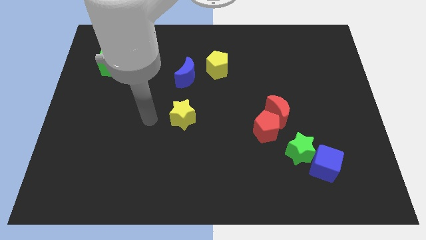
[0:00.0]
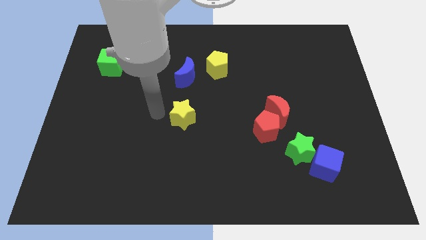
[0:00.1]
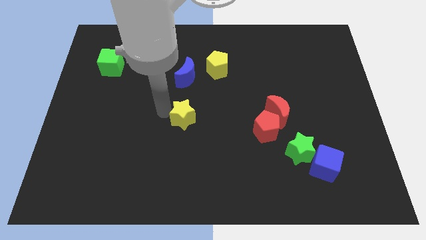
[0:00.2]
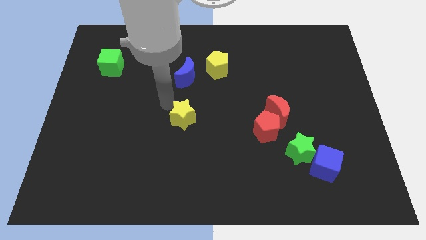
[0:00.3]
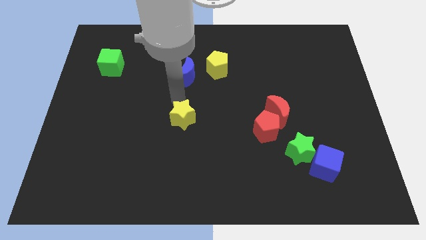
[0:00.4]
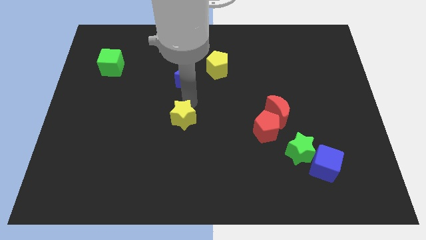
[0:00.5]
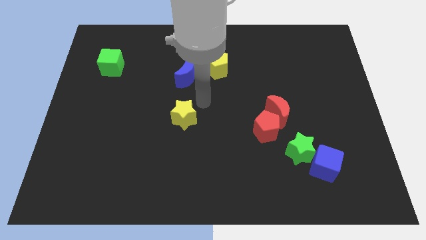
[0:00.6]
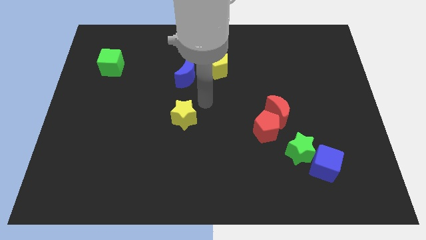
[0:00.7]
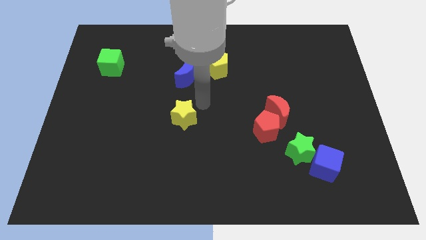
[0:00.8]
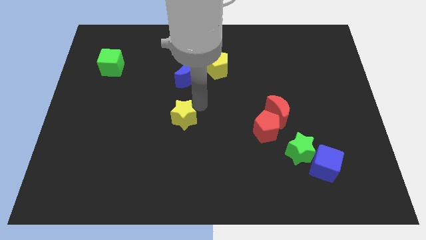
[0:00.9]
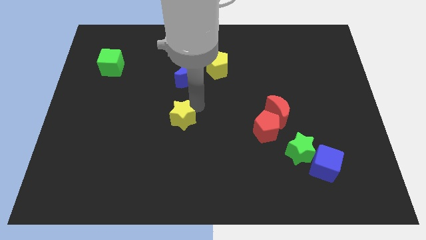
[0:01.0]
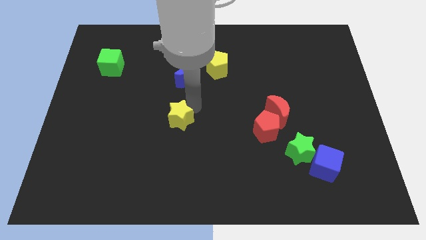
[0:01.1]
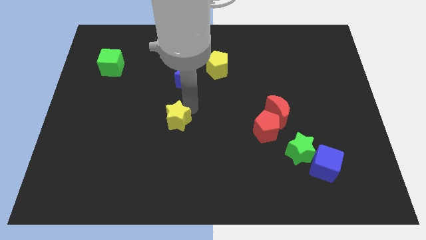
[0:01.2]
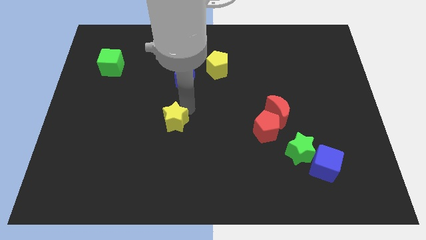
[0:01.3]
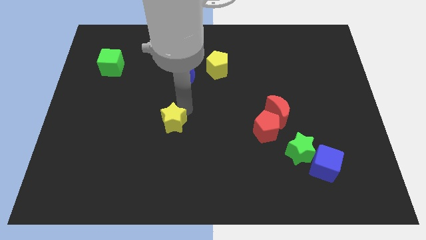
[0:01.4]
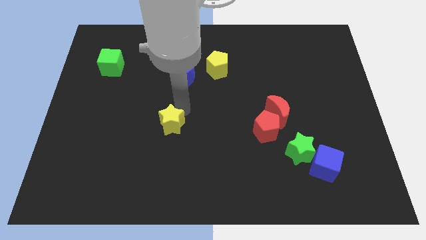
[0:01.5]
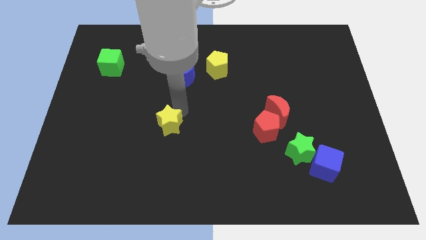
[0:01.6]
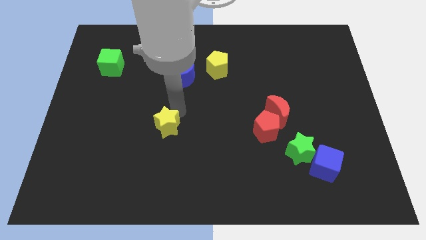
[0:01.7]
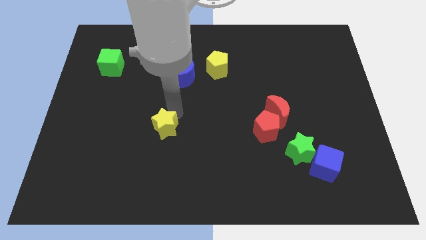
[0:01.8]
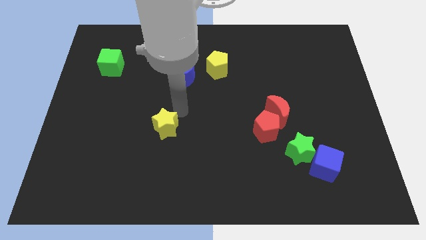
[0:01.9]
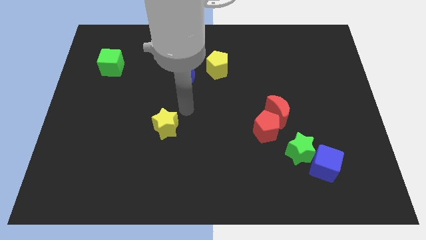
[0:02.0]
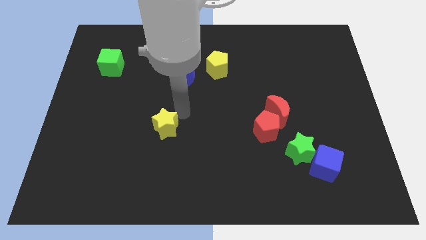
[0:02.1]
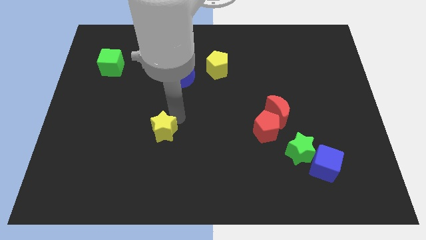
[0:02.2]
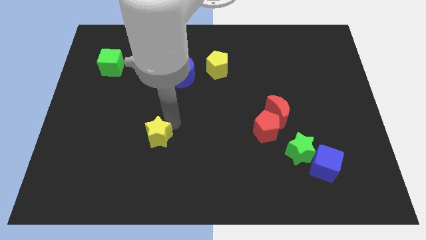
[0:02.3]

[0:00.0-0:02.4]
push the yellow star downwards and then to the left a little

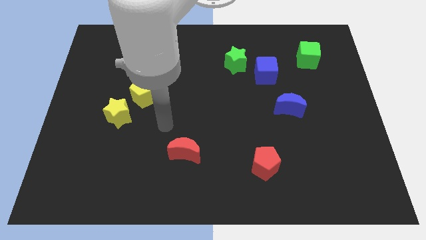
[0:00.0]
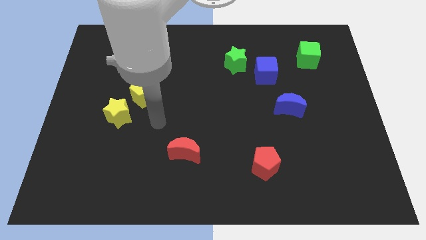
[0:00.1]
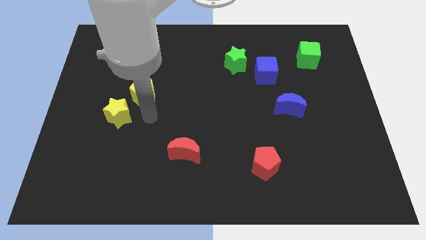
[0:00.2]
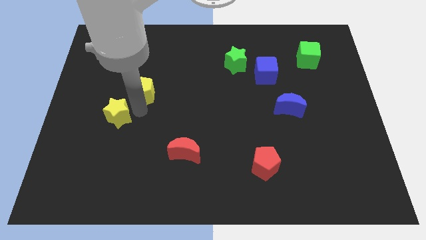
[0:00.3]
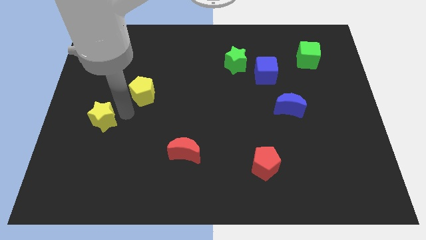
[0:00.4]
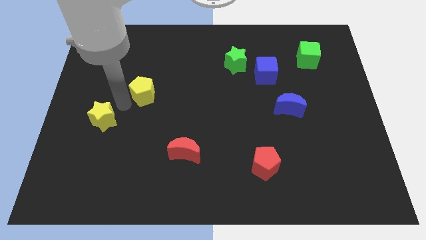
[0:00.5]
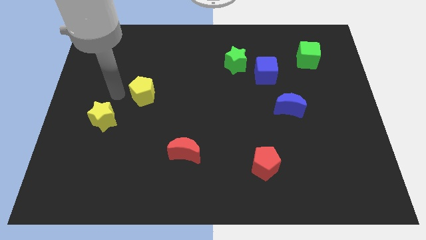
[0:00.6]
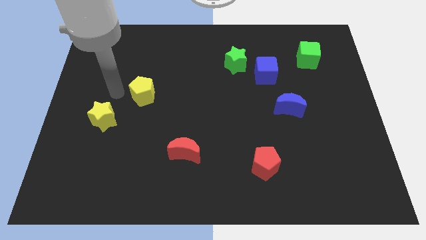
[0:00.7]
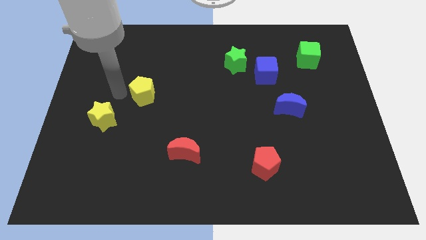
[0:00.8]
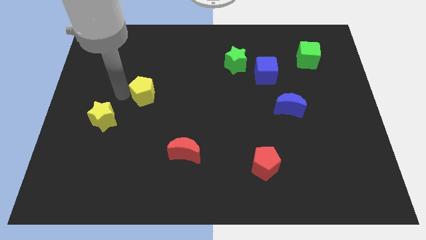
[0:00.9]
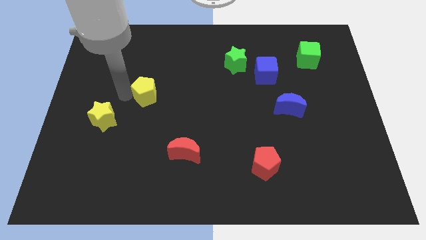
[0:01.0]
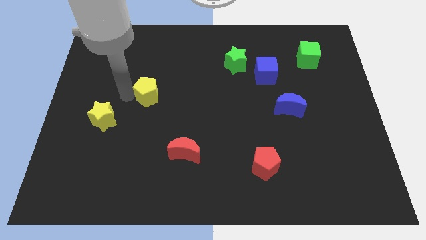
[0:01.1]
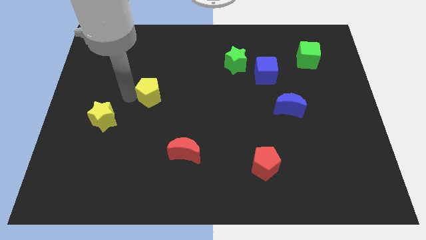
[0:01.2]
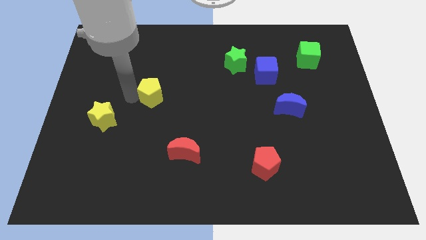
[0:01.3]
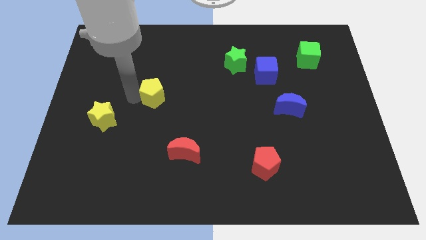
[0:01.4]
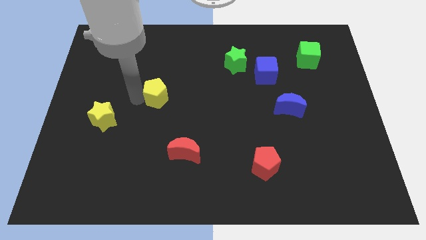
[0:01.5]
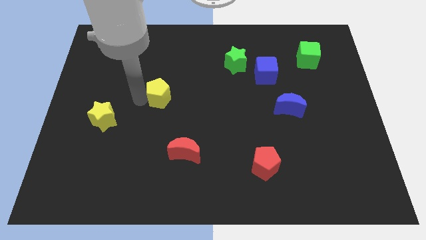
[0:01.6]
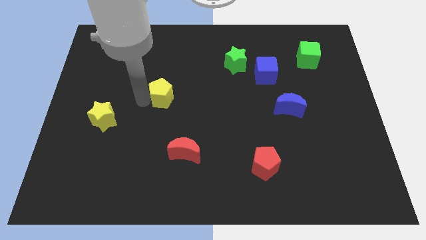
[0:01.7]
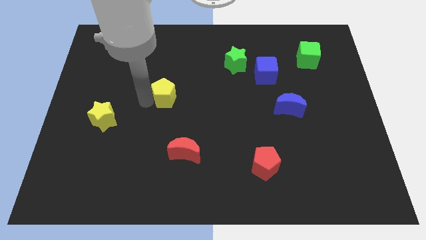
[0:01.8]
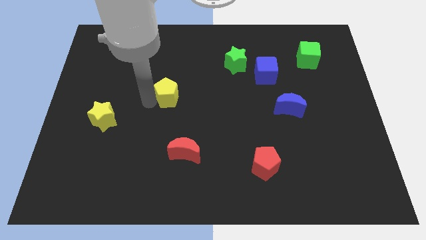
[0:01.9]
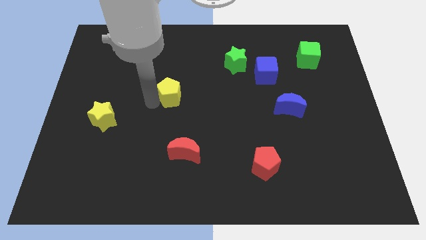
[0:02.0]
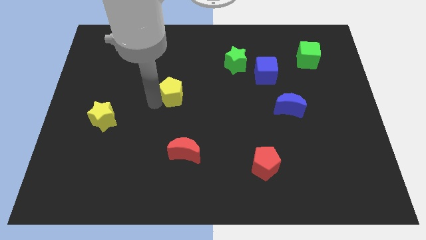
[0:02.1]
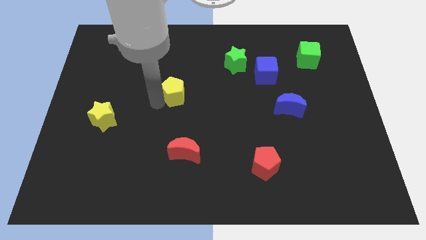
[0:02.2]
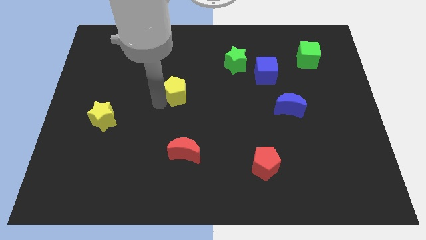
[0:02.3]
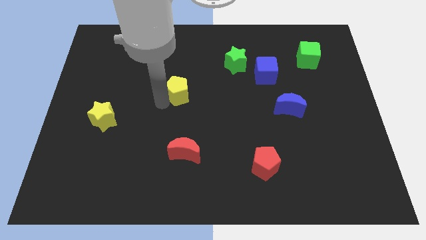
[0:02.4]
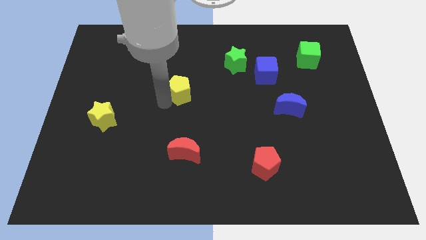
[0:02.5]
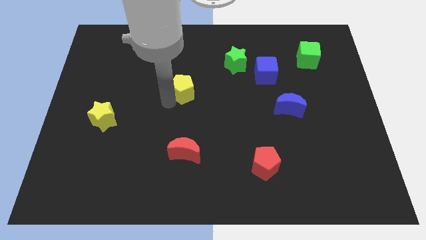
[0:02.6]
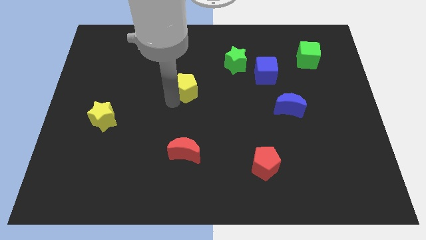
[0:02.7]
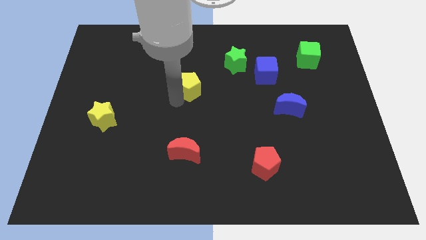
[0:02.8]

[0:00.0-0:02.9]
slide the yellow pentagon slightly diagonally up and to the right

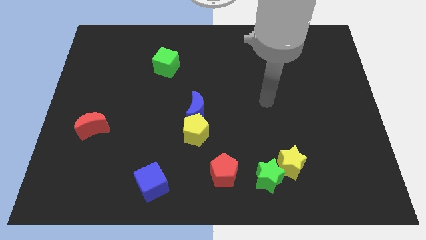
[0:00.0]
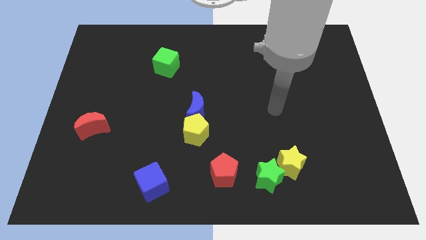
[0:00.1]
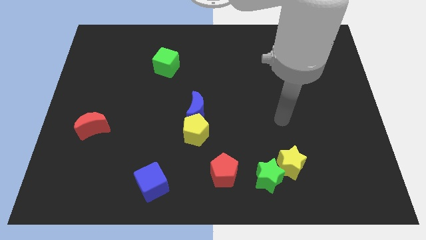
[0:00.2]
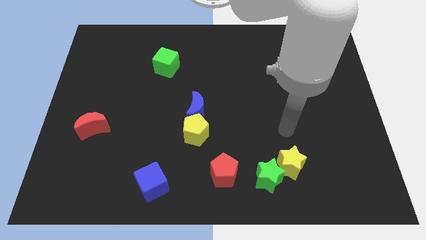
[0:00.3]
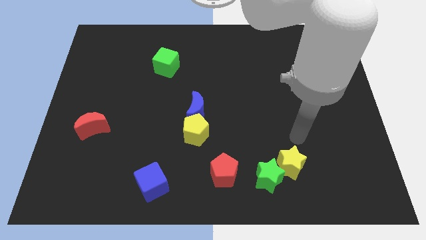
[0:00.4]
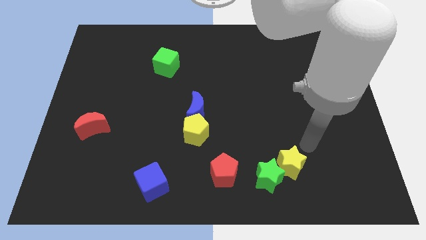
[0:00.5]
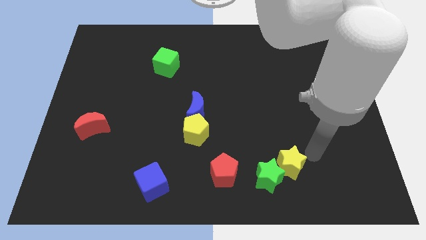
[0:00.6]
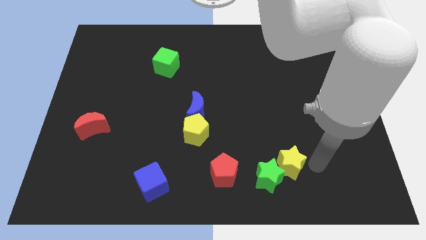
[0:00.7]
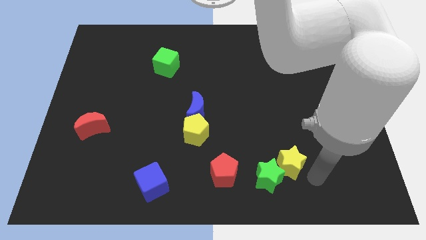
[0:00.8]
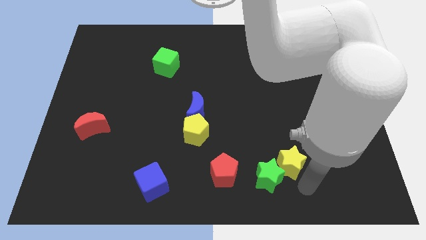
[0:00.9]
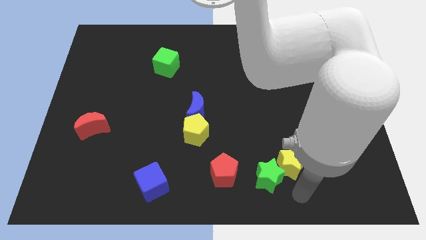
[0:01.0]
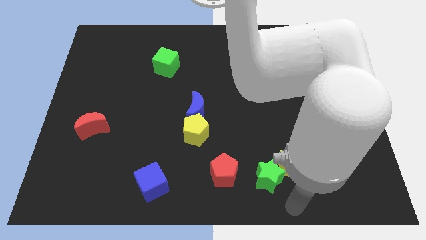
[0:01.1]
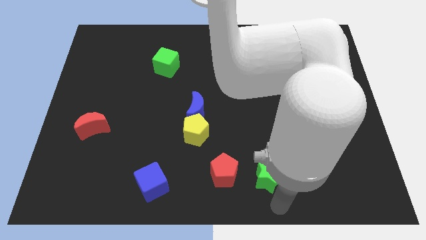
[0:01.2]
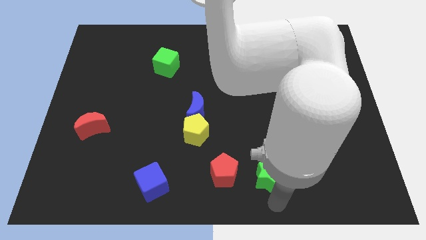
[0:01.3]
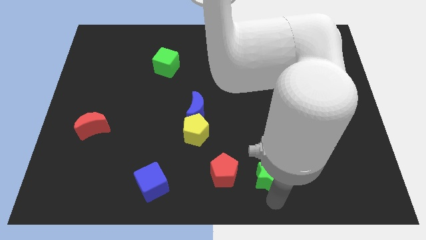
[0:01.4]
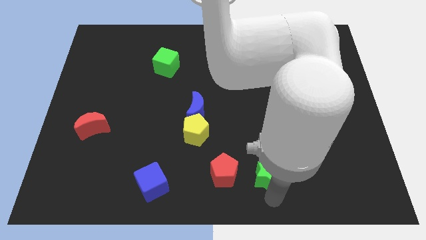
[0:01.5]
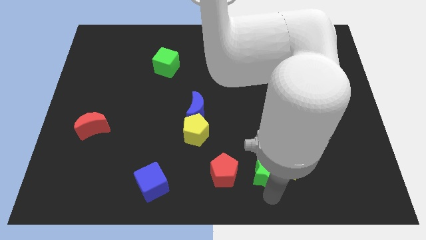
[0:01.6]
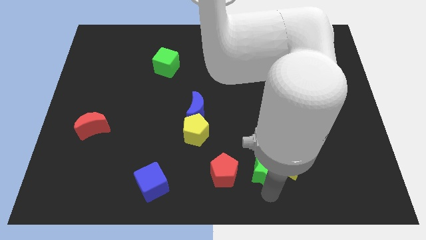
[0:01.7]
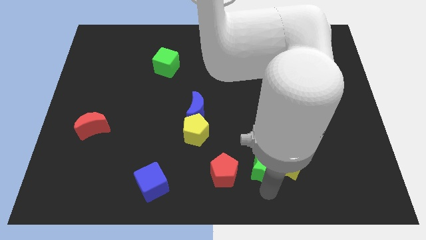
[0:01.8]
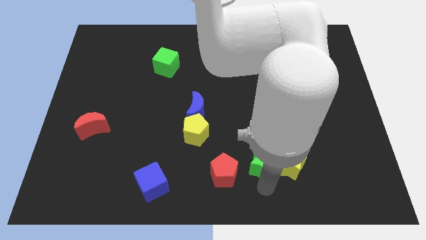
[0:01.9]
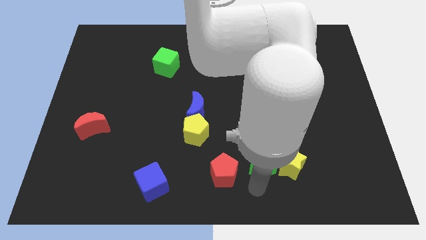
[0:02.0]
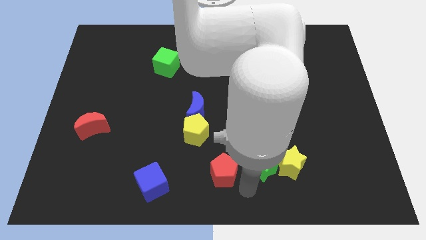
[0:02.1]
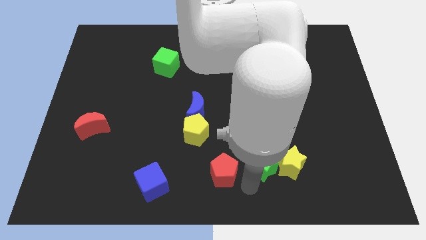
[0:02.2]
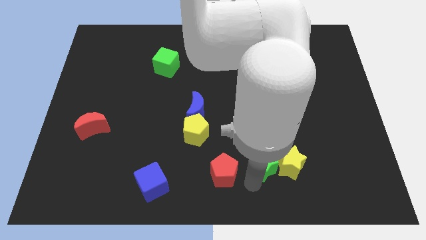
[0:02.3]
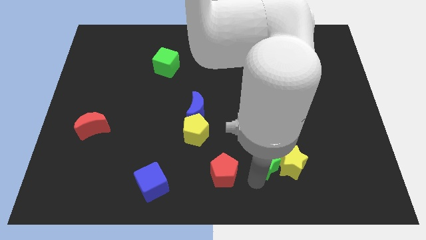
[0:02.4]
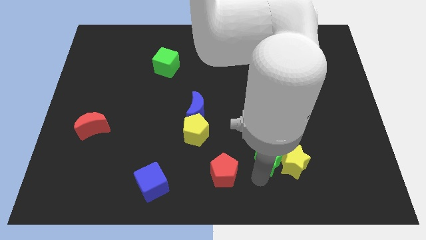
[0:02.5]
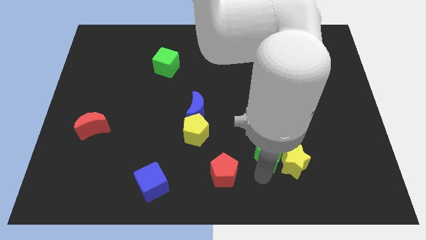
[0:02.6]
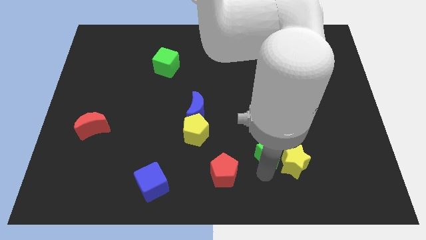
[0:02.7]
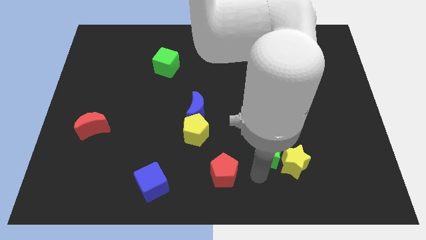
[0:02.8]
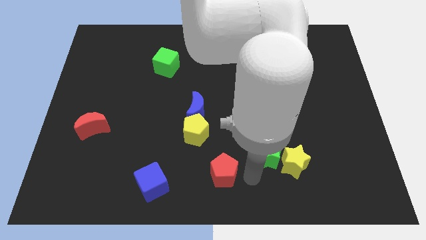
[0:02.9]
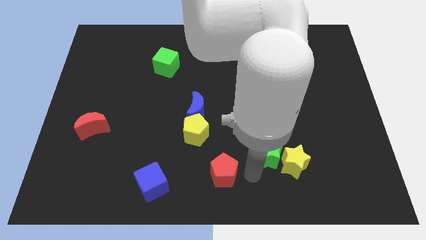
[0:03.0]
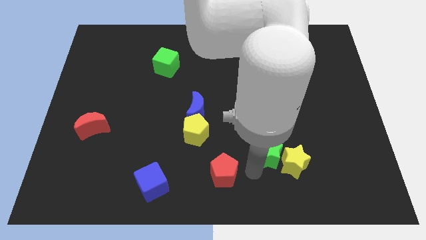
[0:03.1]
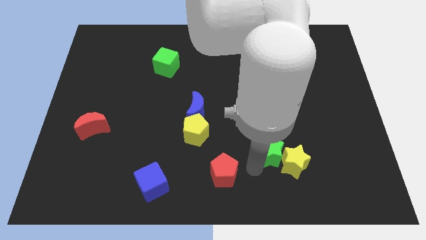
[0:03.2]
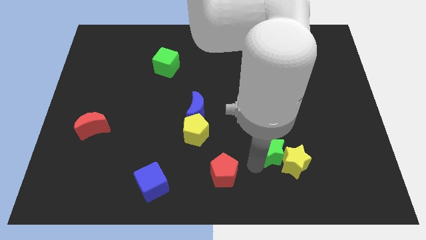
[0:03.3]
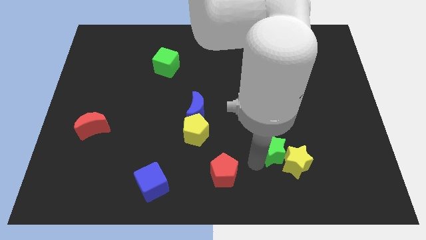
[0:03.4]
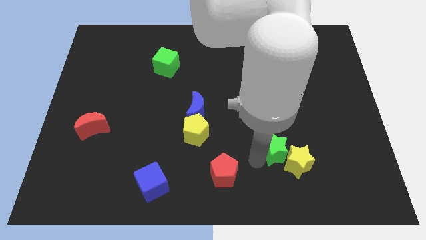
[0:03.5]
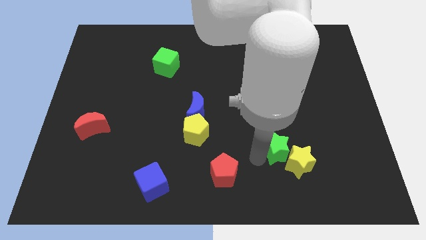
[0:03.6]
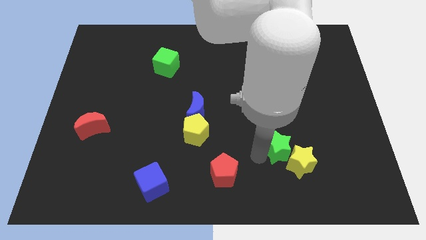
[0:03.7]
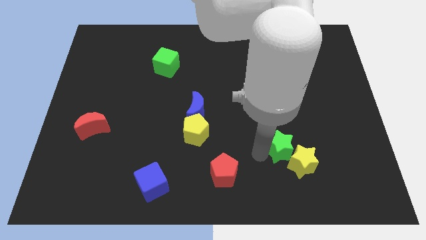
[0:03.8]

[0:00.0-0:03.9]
move the green star upwards and then right slightly
